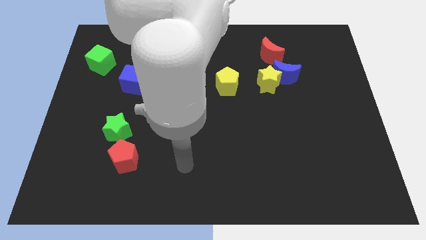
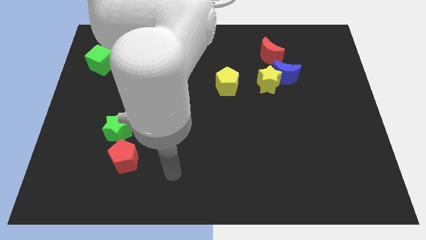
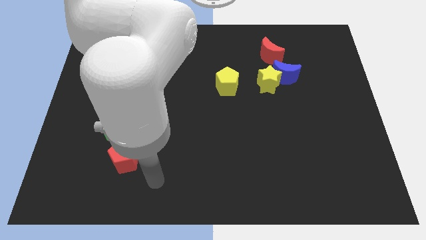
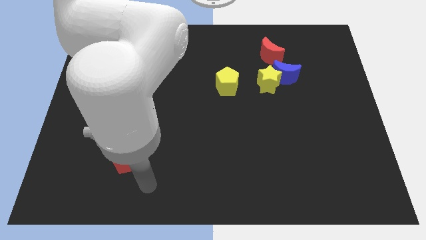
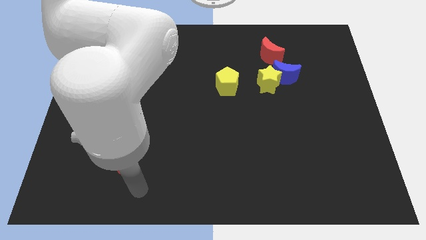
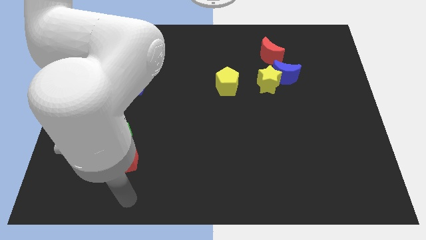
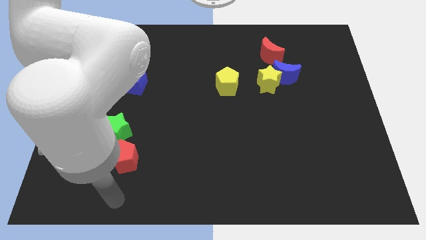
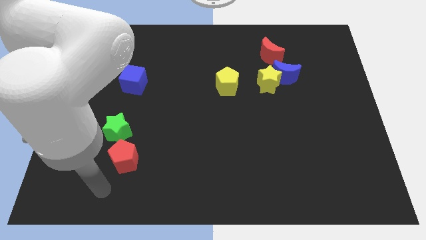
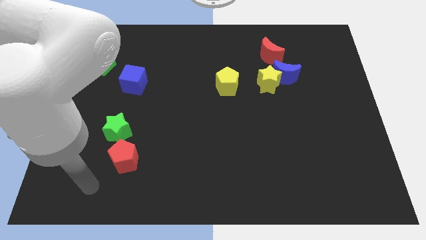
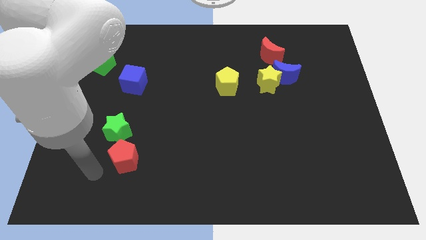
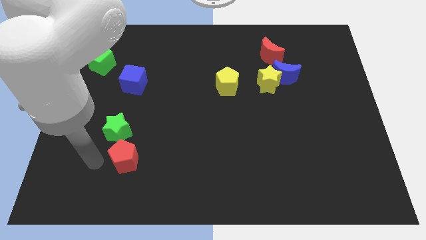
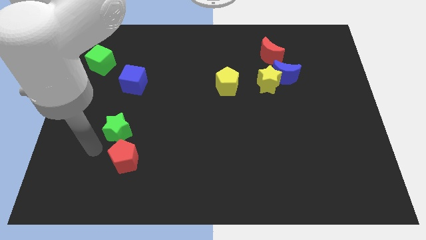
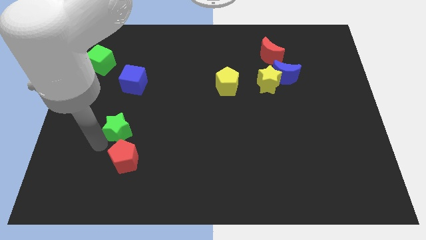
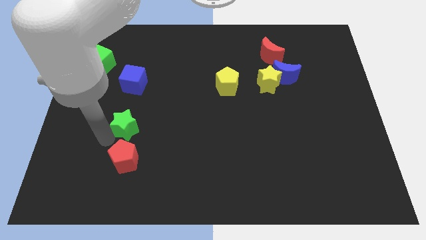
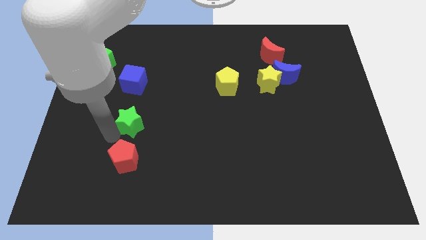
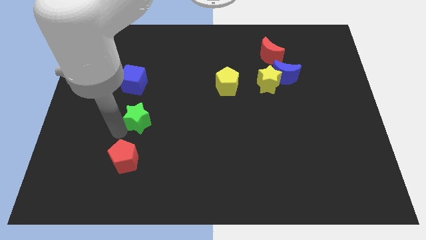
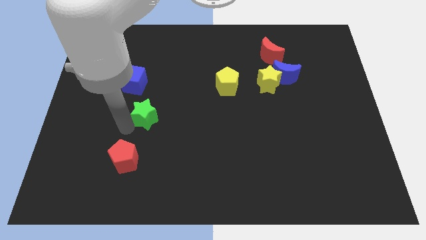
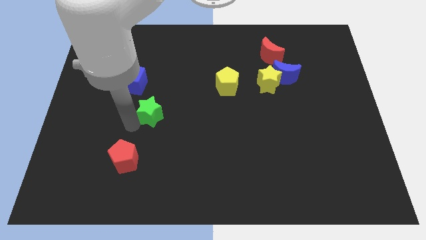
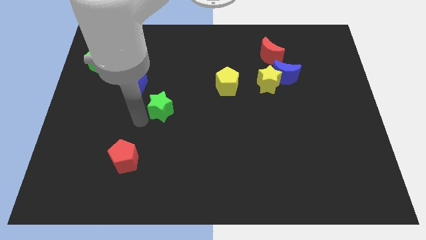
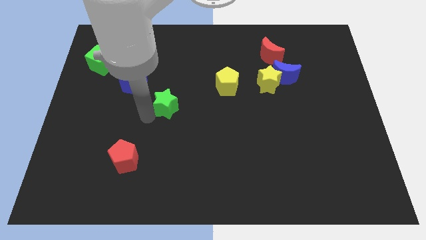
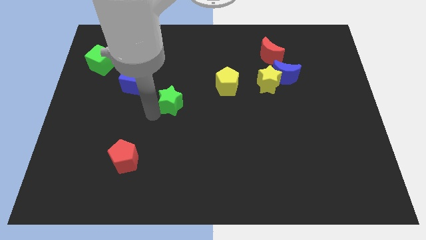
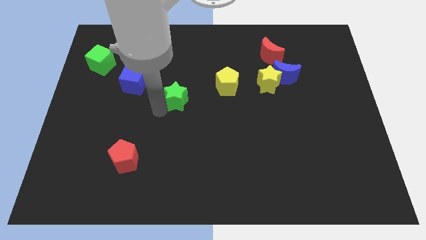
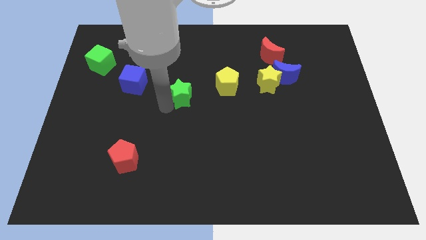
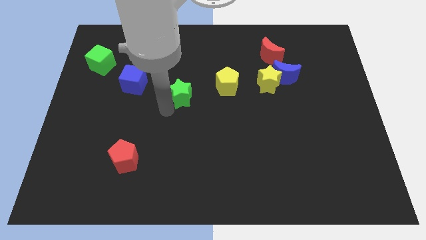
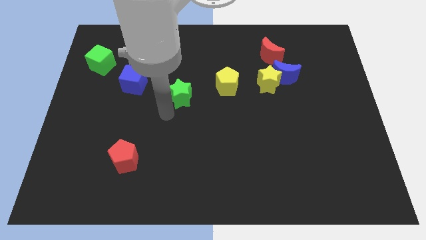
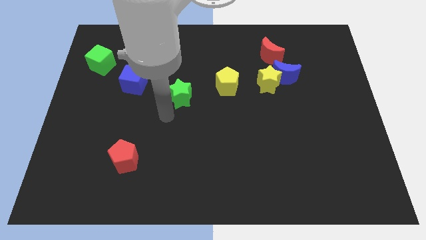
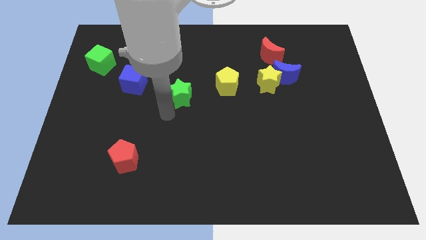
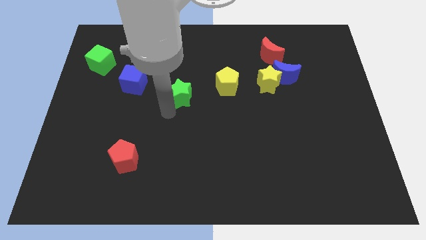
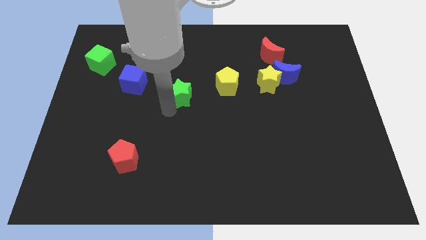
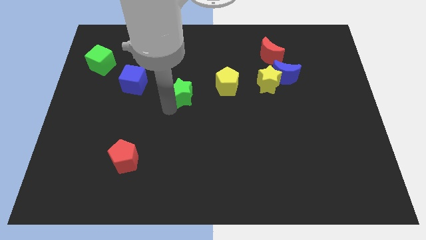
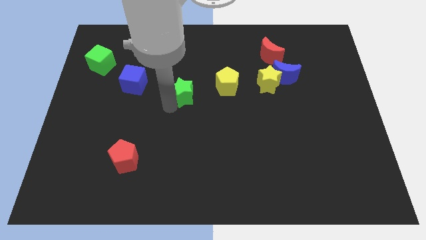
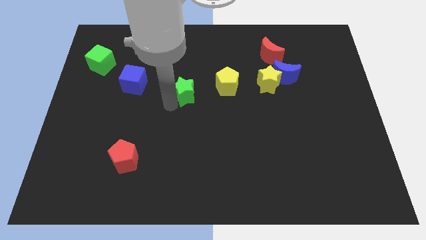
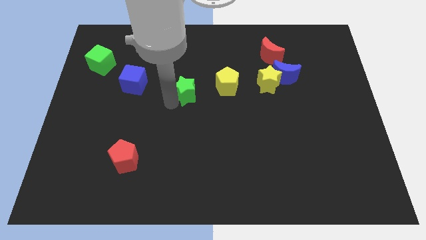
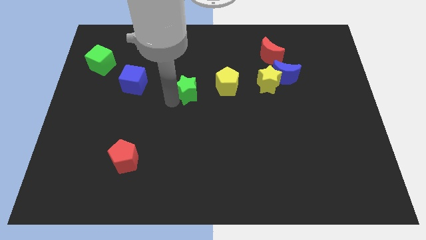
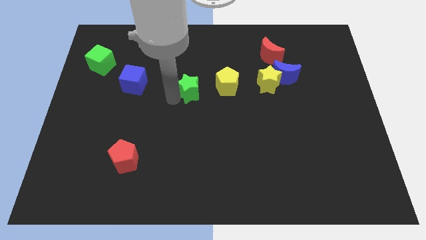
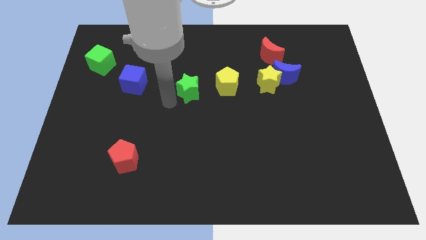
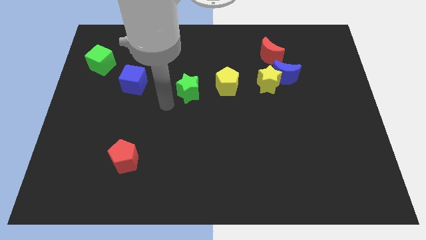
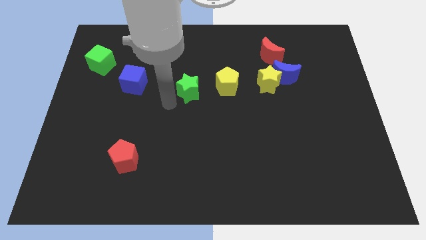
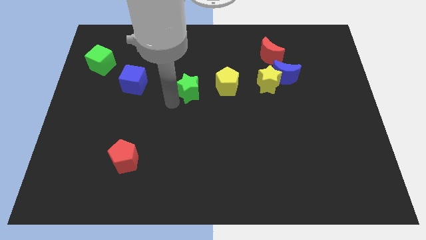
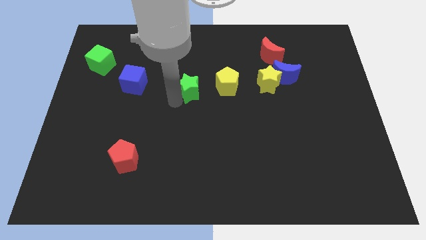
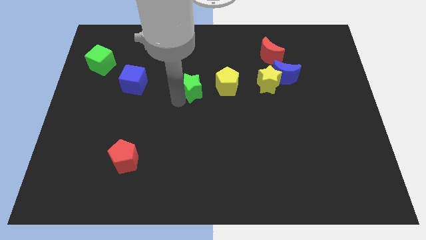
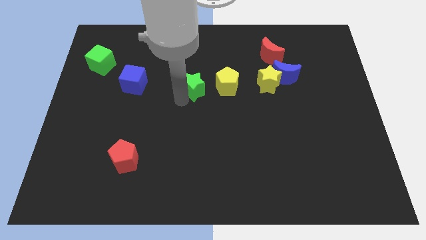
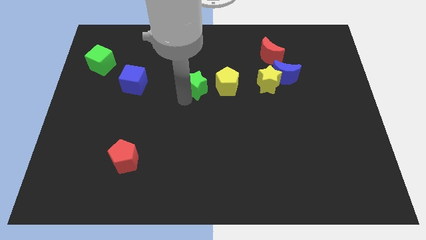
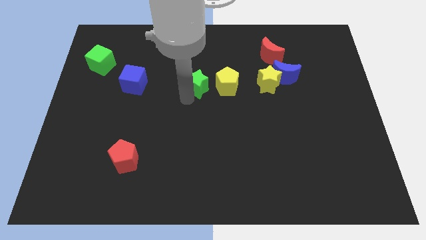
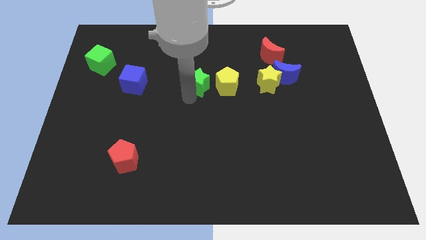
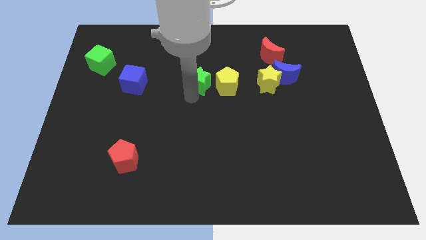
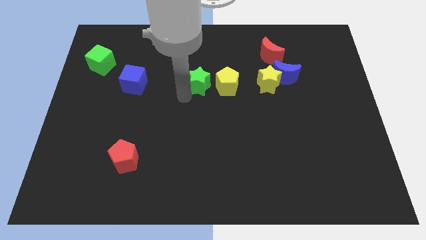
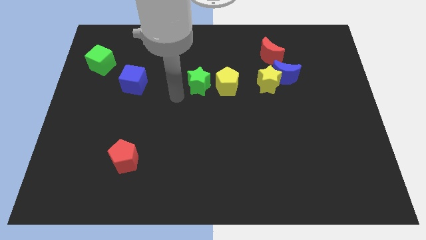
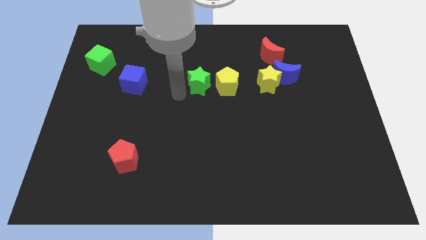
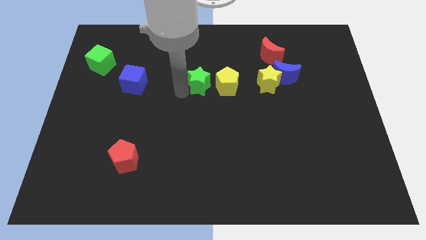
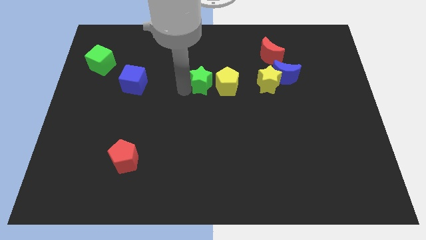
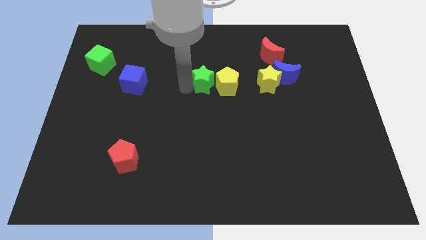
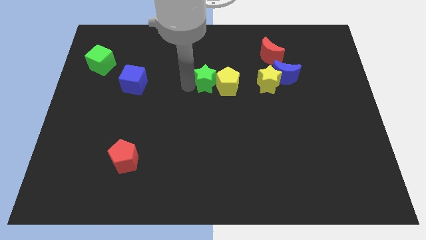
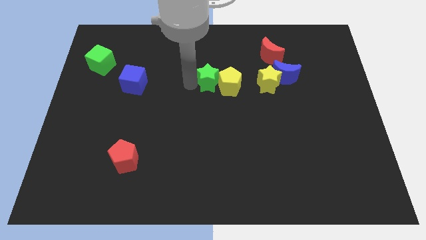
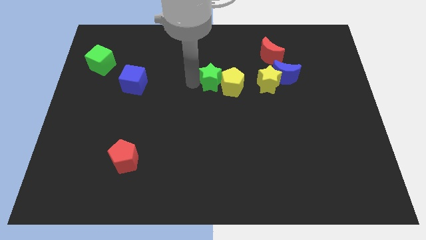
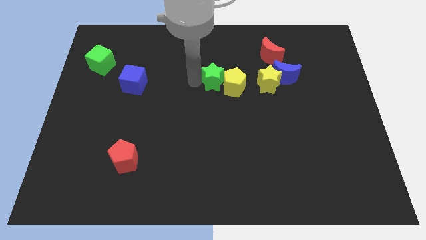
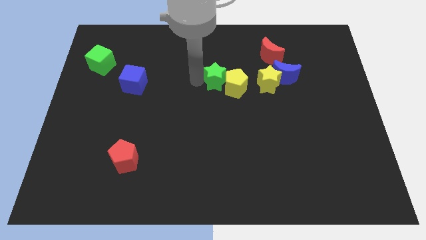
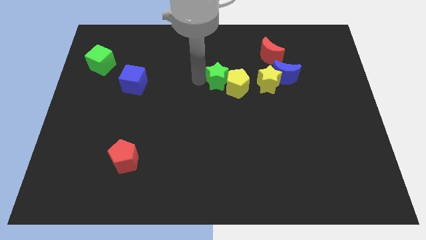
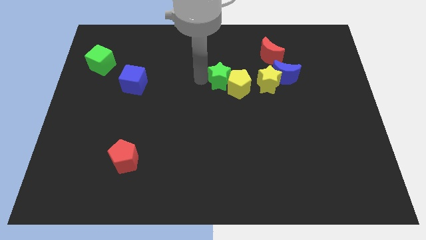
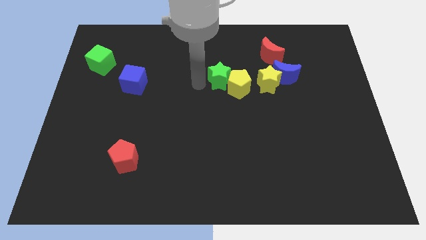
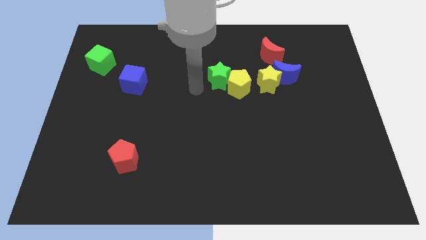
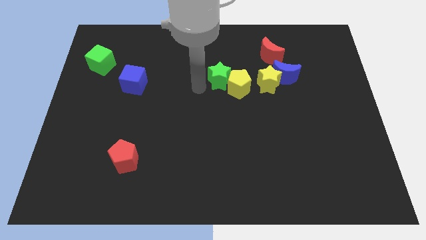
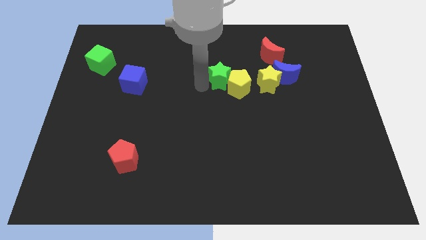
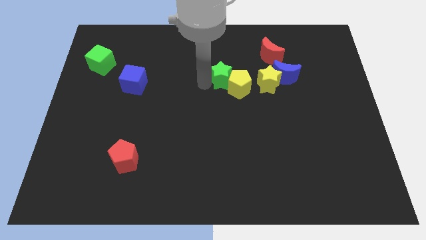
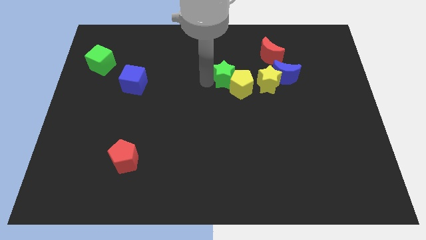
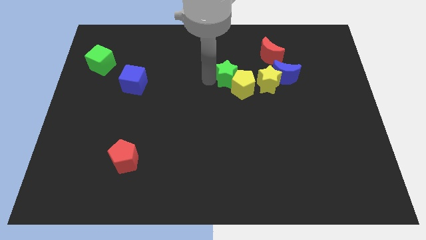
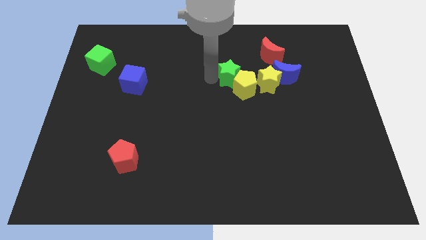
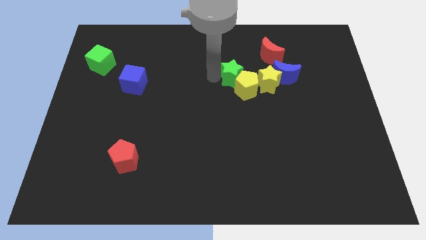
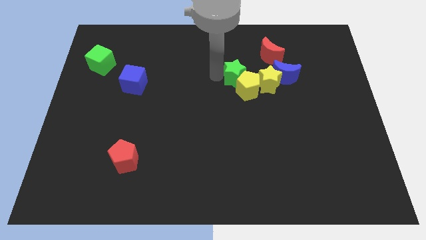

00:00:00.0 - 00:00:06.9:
slide the green star to the top left of the yellow star
